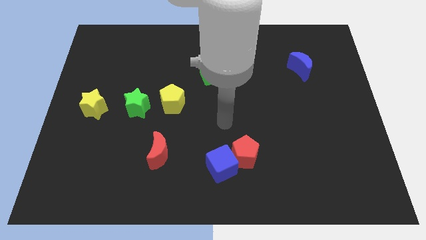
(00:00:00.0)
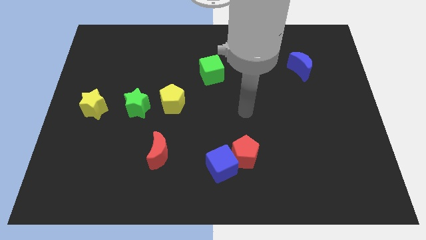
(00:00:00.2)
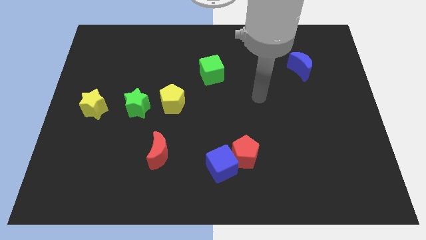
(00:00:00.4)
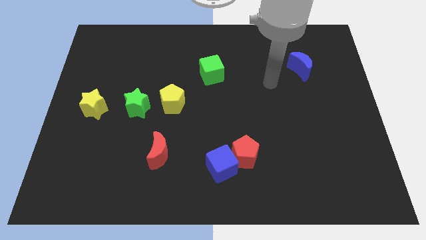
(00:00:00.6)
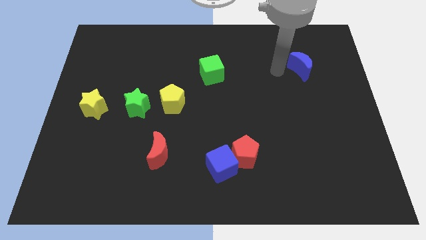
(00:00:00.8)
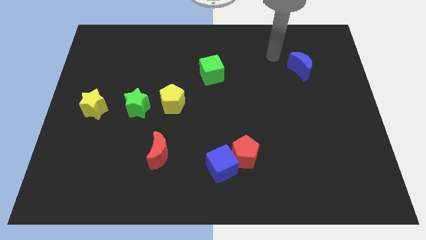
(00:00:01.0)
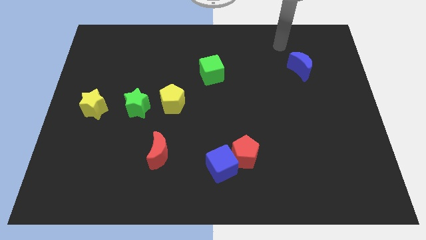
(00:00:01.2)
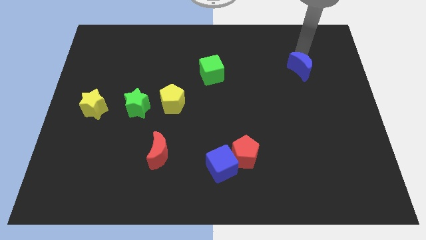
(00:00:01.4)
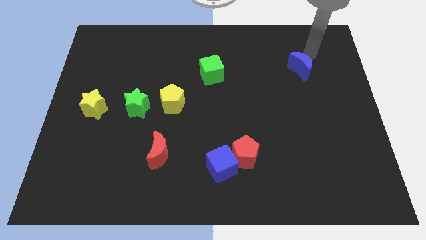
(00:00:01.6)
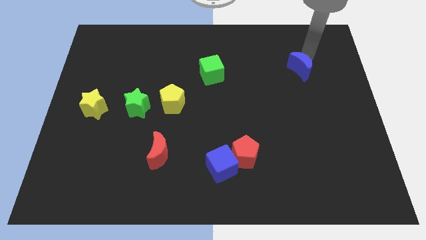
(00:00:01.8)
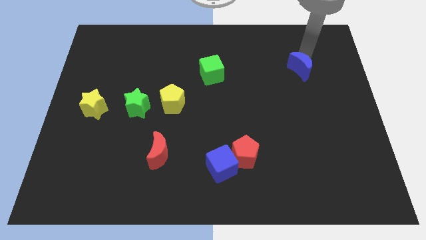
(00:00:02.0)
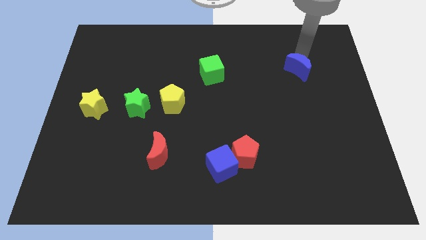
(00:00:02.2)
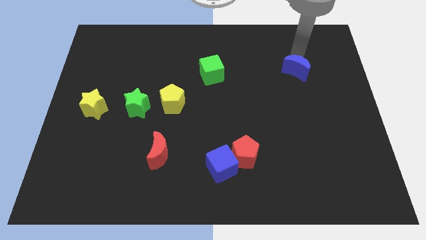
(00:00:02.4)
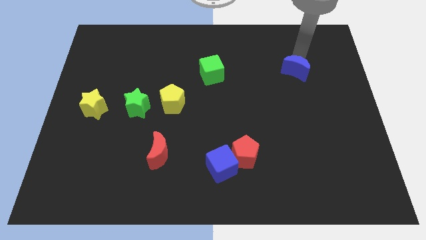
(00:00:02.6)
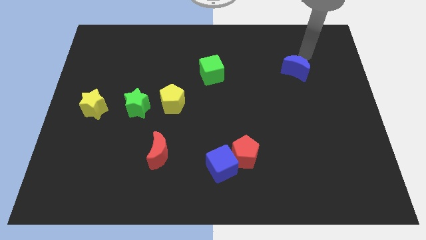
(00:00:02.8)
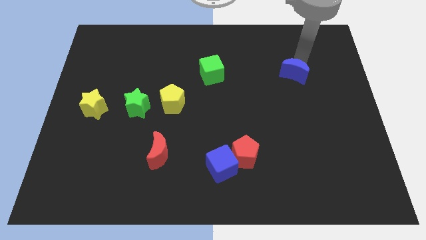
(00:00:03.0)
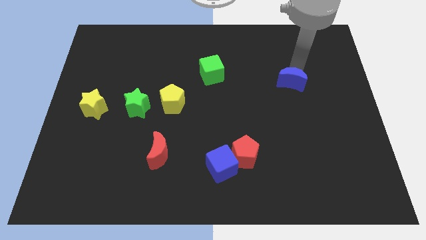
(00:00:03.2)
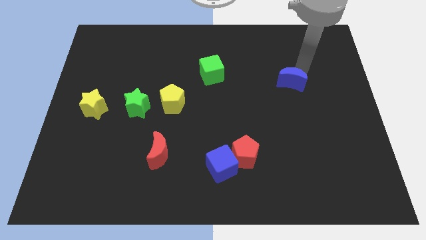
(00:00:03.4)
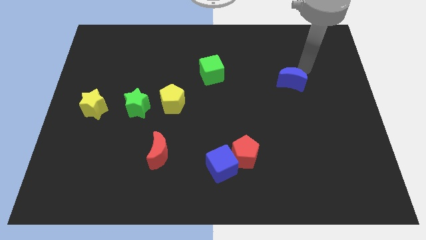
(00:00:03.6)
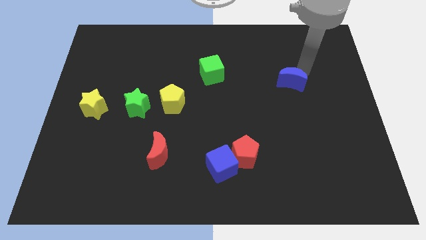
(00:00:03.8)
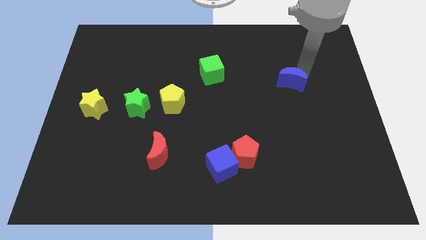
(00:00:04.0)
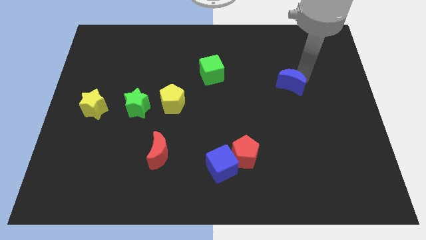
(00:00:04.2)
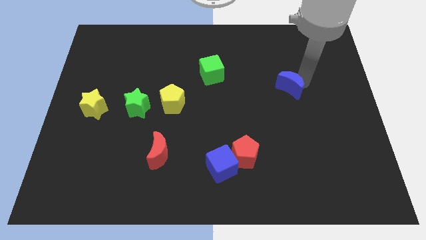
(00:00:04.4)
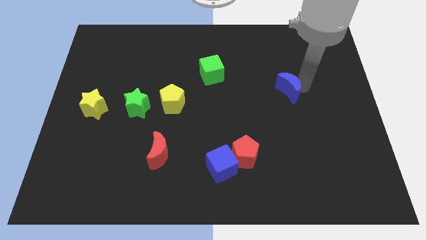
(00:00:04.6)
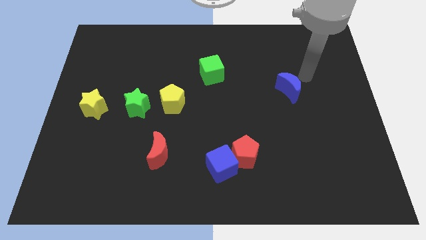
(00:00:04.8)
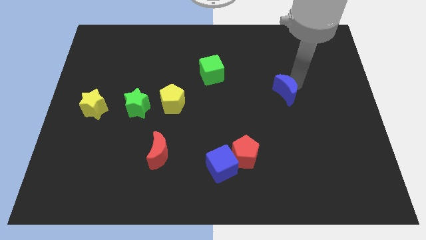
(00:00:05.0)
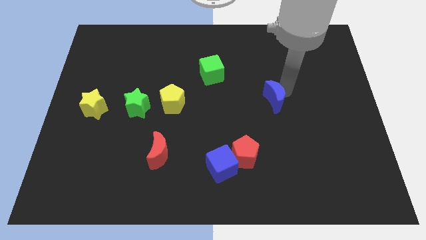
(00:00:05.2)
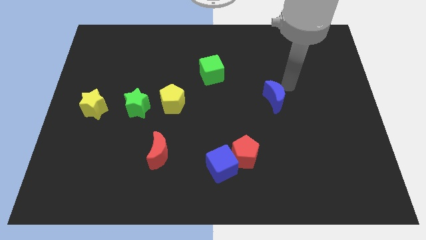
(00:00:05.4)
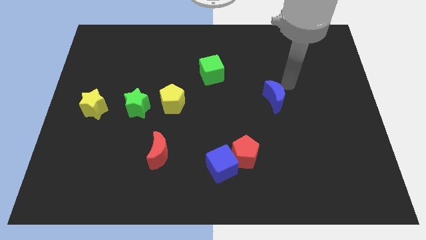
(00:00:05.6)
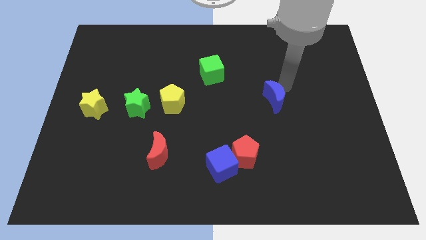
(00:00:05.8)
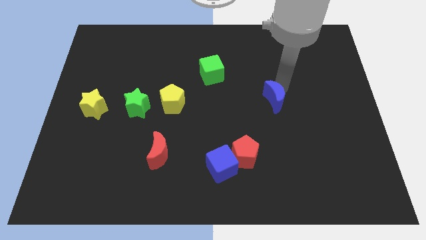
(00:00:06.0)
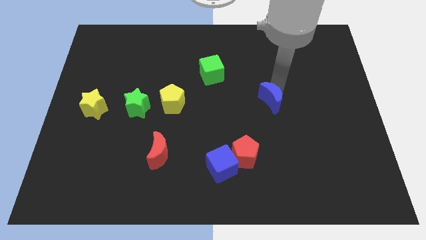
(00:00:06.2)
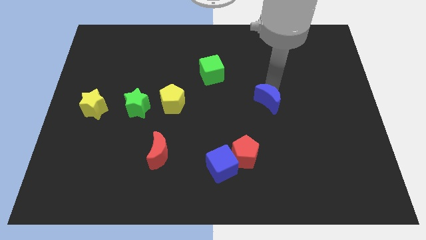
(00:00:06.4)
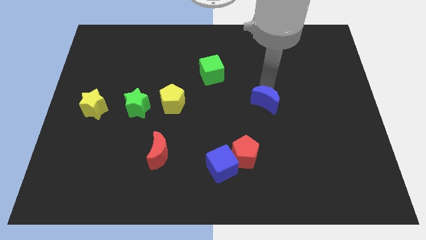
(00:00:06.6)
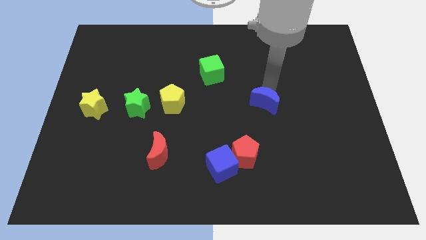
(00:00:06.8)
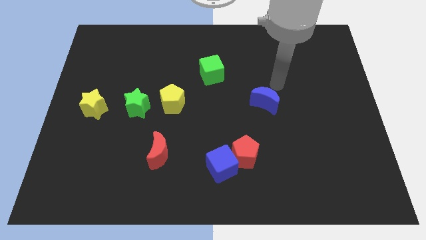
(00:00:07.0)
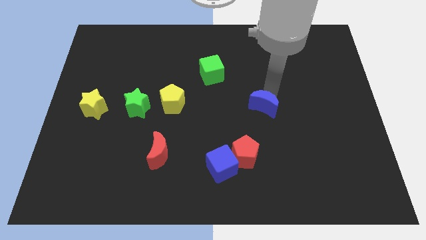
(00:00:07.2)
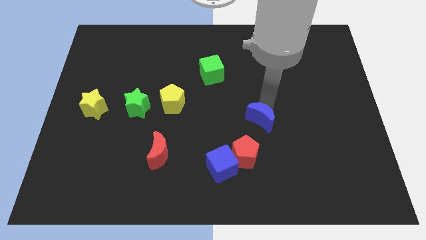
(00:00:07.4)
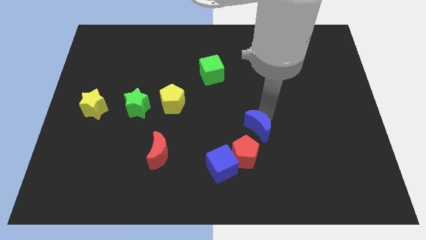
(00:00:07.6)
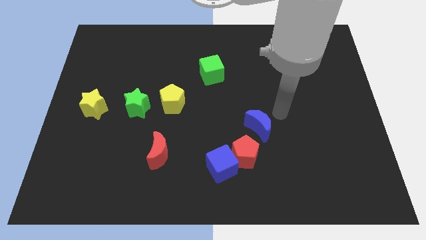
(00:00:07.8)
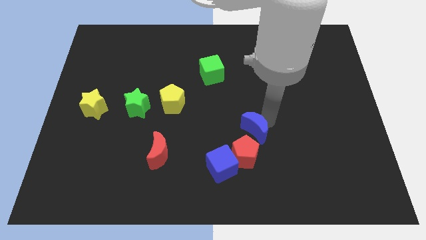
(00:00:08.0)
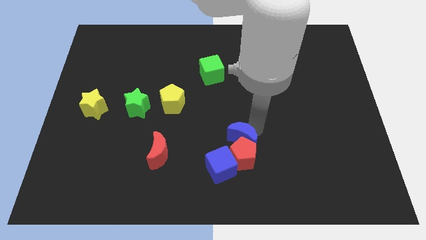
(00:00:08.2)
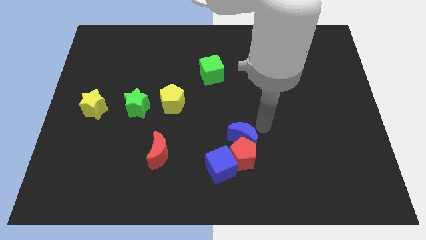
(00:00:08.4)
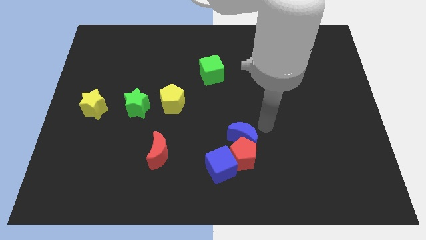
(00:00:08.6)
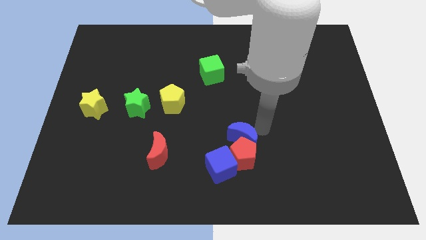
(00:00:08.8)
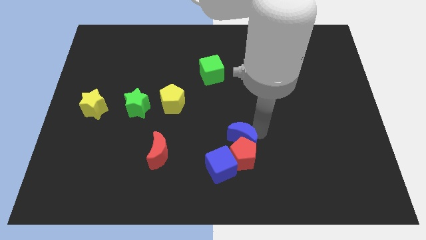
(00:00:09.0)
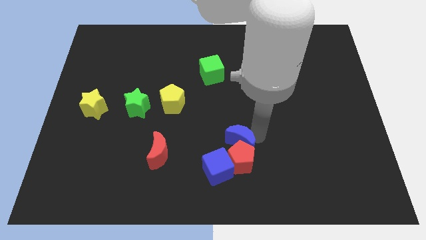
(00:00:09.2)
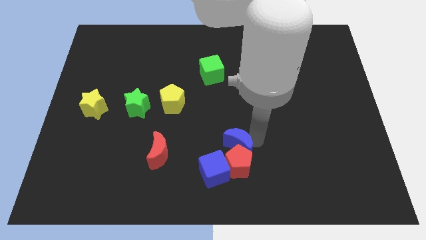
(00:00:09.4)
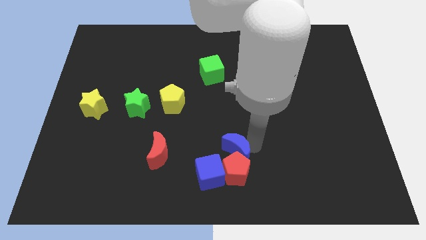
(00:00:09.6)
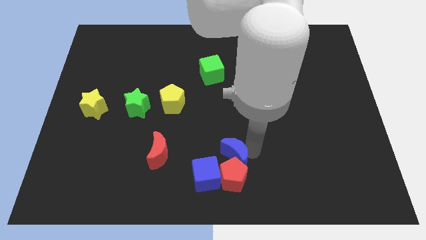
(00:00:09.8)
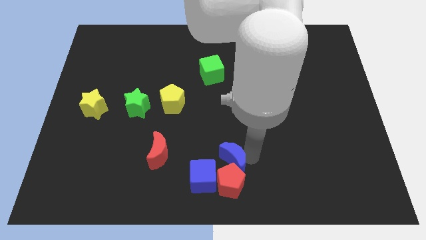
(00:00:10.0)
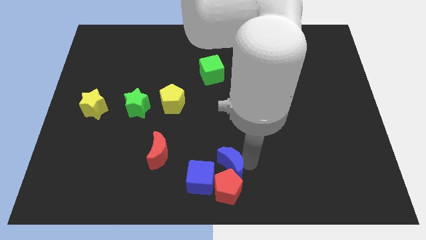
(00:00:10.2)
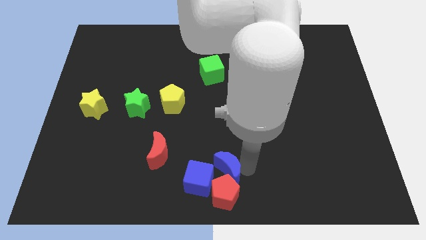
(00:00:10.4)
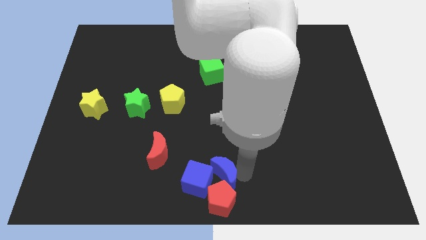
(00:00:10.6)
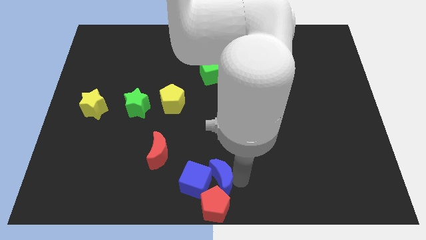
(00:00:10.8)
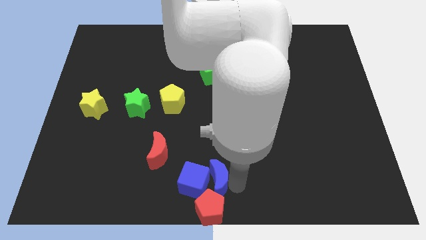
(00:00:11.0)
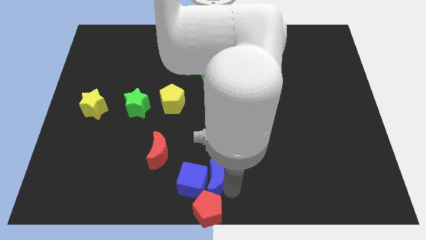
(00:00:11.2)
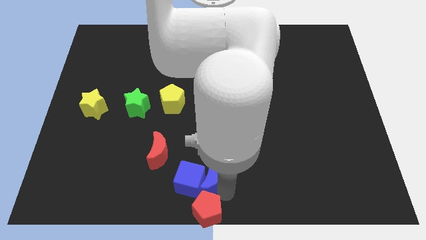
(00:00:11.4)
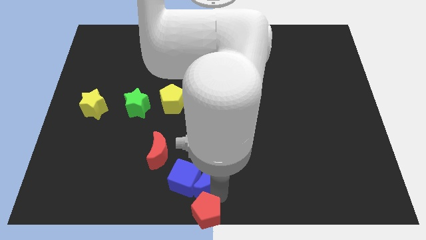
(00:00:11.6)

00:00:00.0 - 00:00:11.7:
move the blue moon diagonally down and to the right of the red moon

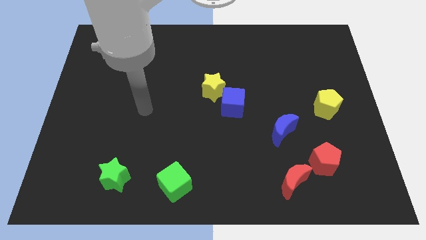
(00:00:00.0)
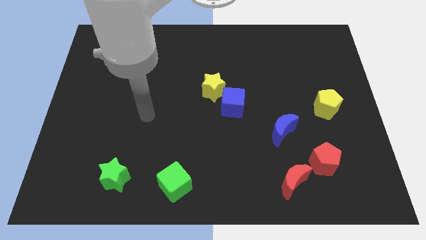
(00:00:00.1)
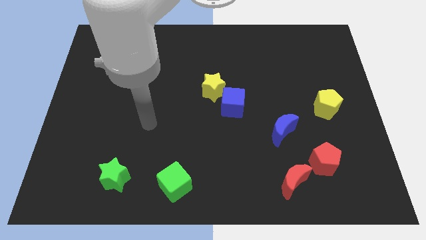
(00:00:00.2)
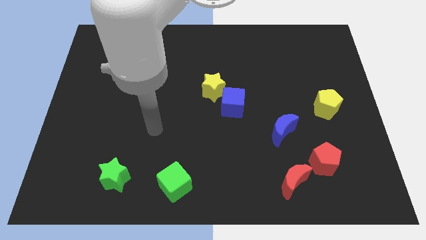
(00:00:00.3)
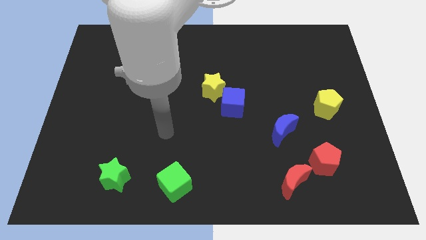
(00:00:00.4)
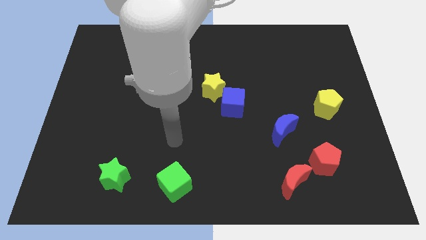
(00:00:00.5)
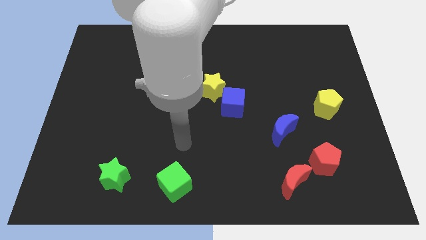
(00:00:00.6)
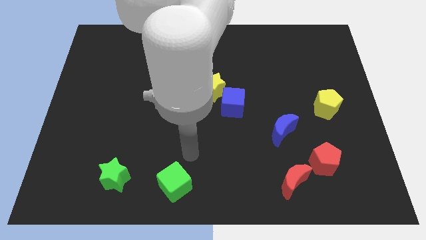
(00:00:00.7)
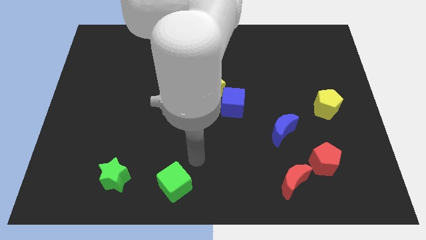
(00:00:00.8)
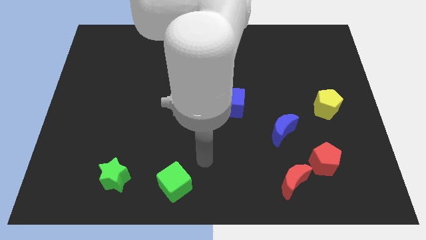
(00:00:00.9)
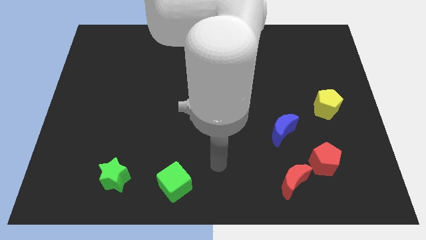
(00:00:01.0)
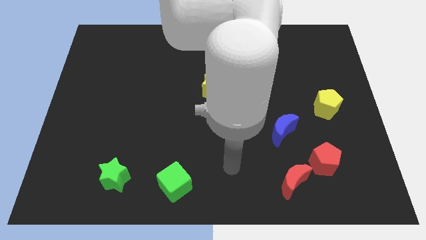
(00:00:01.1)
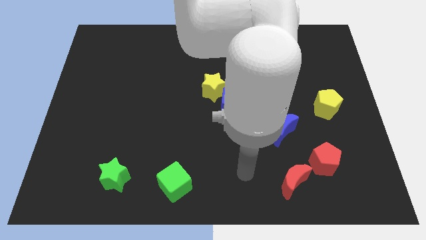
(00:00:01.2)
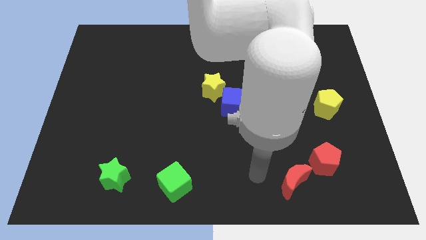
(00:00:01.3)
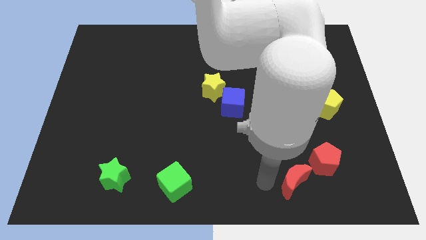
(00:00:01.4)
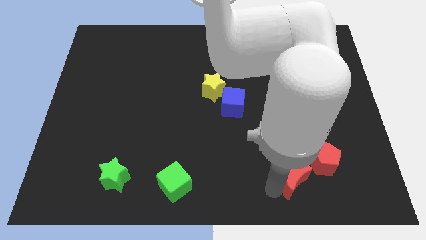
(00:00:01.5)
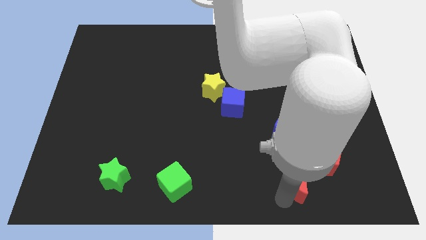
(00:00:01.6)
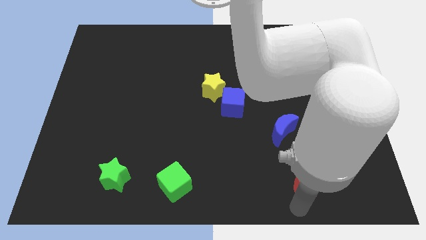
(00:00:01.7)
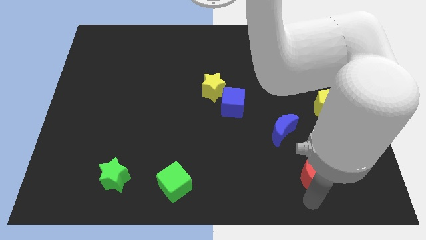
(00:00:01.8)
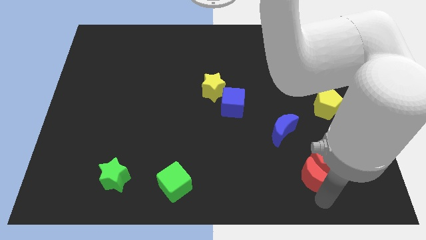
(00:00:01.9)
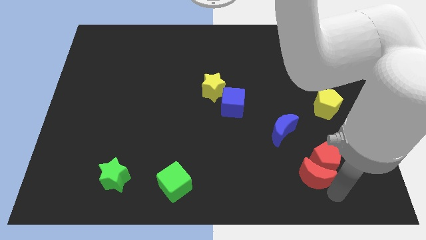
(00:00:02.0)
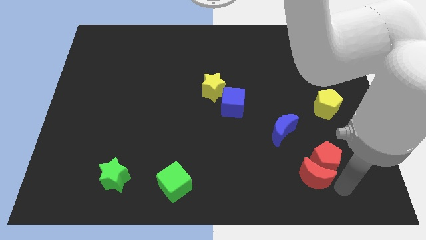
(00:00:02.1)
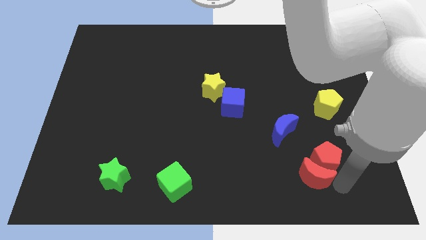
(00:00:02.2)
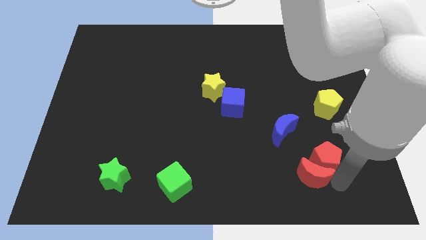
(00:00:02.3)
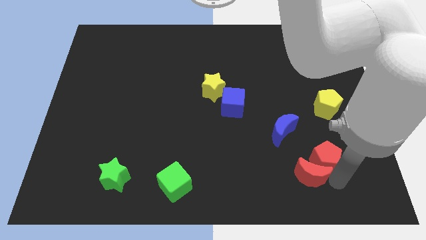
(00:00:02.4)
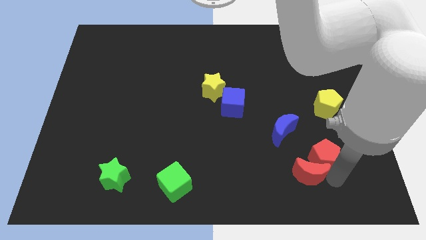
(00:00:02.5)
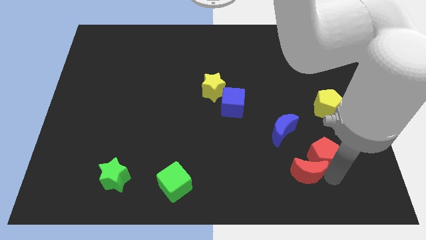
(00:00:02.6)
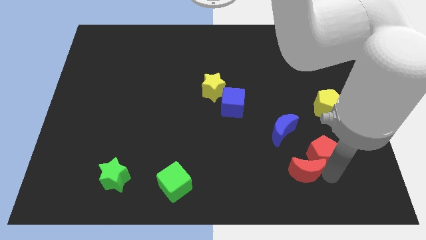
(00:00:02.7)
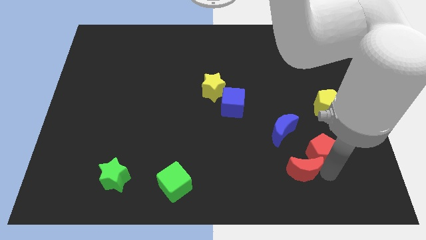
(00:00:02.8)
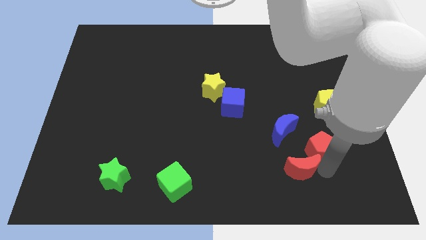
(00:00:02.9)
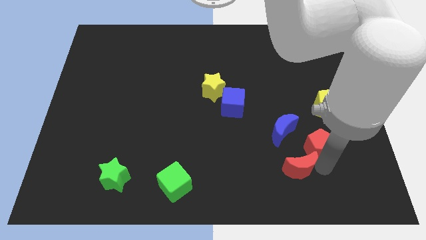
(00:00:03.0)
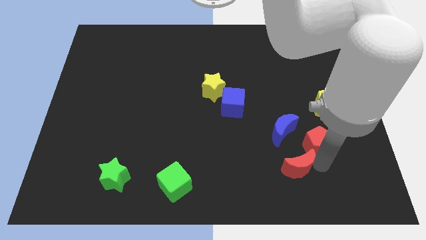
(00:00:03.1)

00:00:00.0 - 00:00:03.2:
put the red pentagon to the bottom left of the yellow pentagon
